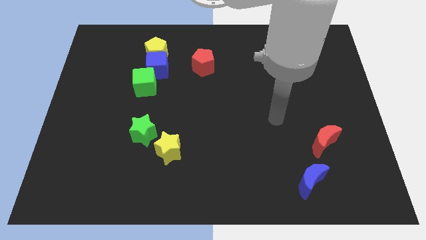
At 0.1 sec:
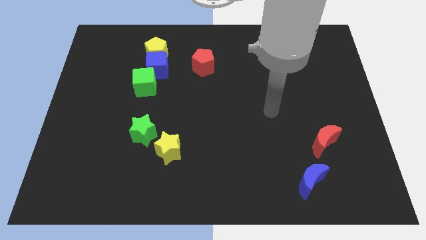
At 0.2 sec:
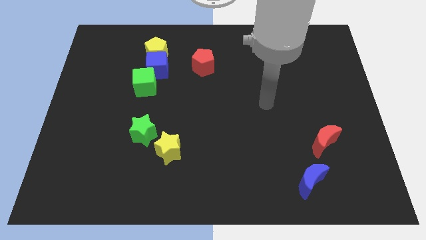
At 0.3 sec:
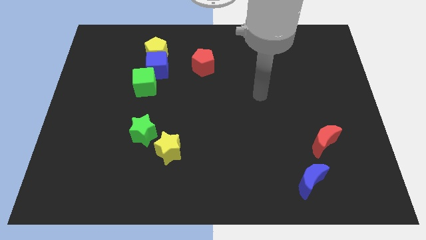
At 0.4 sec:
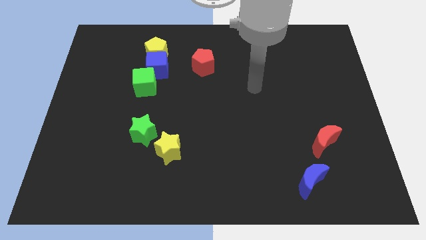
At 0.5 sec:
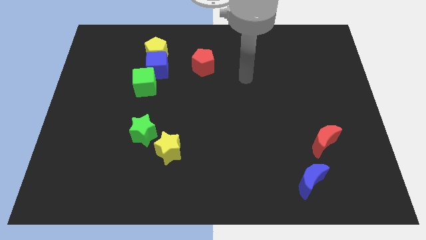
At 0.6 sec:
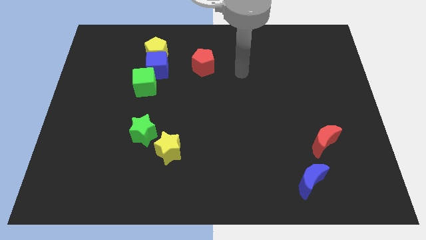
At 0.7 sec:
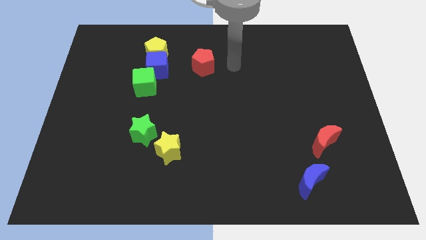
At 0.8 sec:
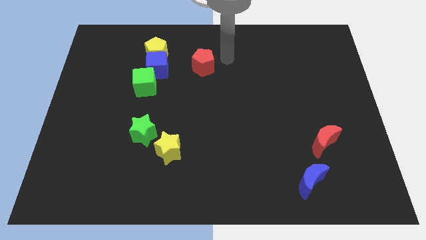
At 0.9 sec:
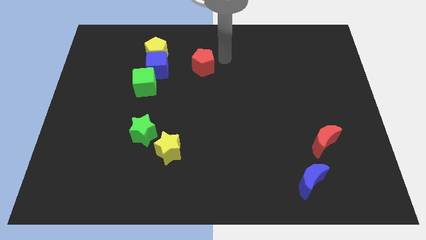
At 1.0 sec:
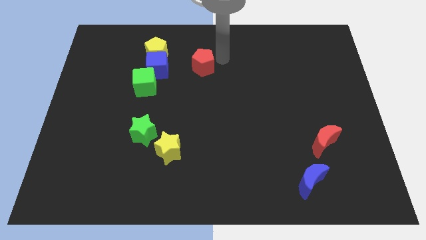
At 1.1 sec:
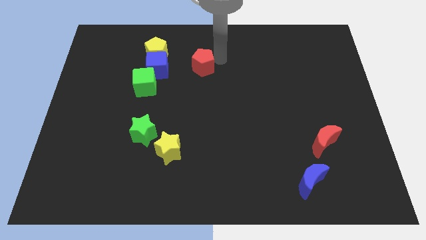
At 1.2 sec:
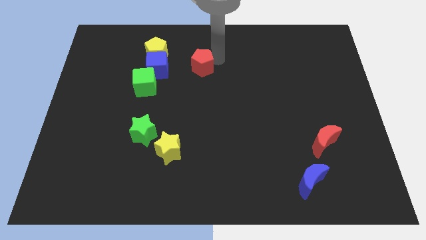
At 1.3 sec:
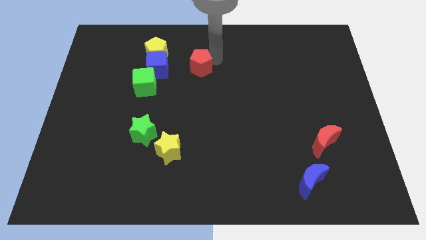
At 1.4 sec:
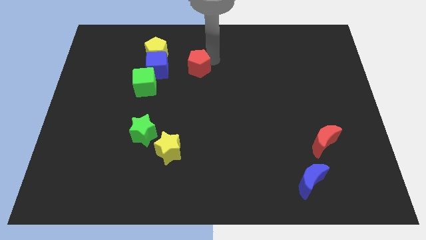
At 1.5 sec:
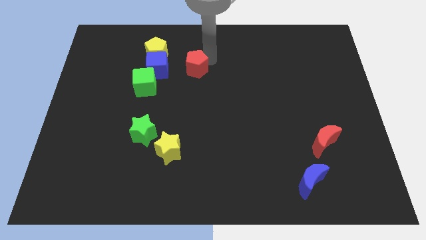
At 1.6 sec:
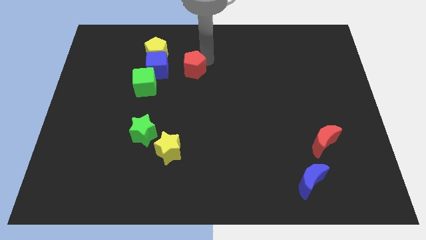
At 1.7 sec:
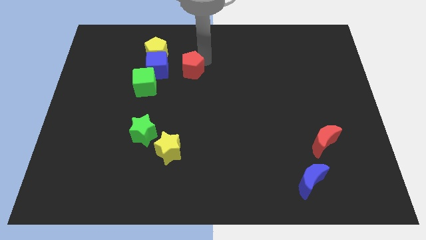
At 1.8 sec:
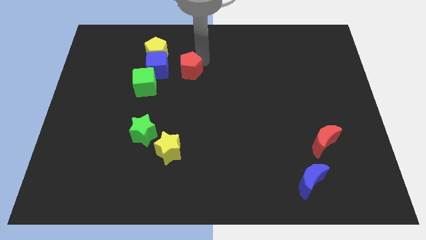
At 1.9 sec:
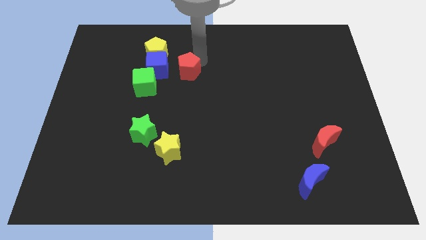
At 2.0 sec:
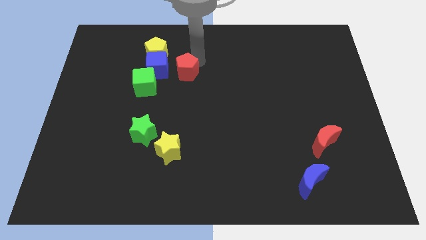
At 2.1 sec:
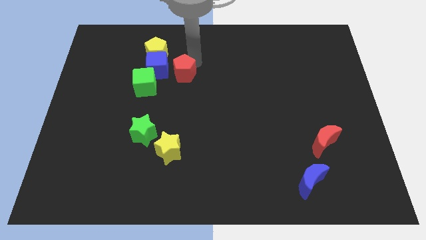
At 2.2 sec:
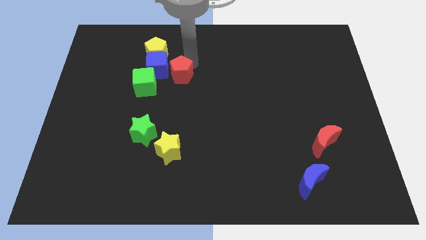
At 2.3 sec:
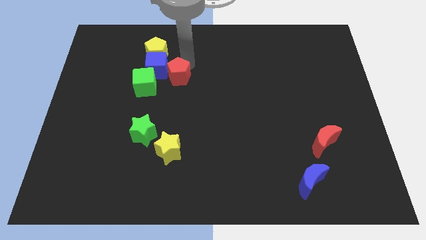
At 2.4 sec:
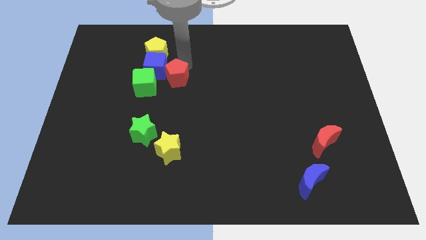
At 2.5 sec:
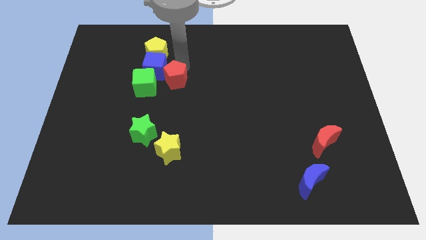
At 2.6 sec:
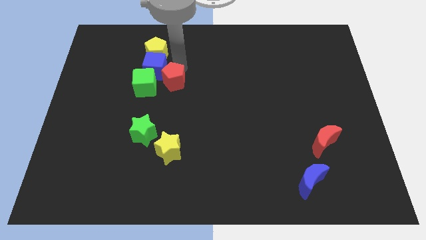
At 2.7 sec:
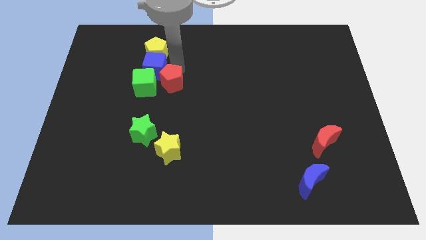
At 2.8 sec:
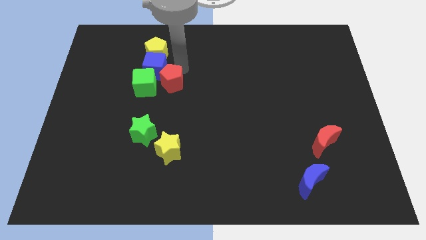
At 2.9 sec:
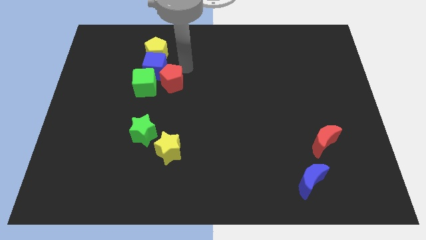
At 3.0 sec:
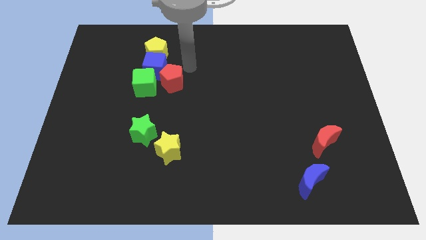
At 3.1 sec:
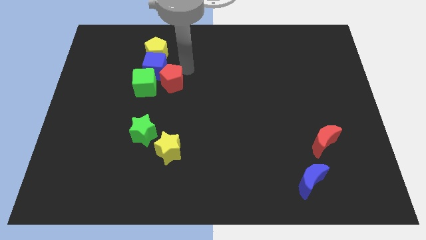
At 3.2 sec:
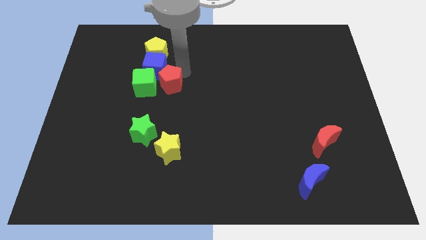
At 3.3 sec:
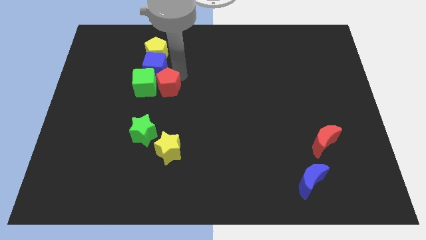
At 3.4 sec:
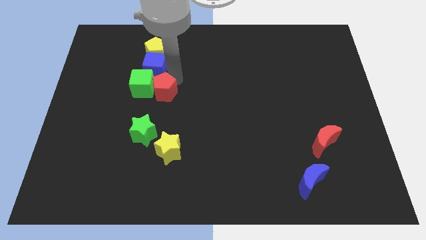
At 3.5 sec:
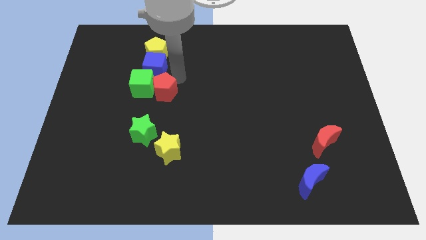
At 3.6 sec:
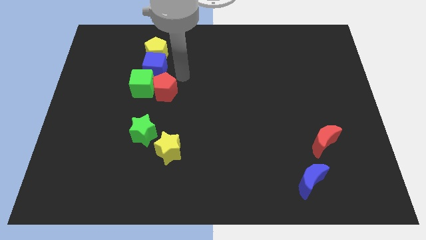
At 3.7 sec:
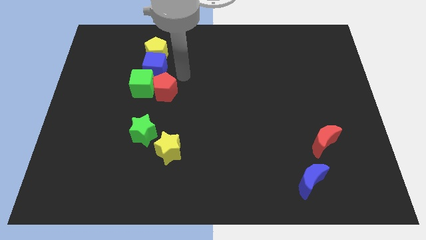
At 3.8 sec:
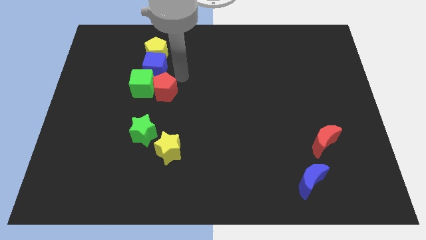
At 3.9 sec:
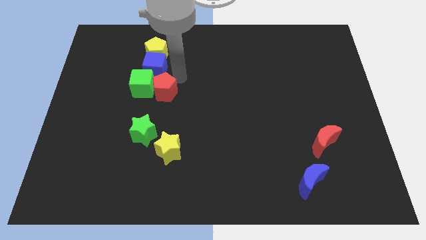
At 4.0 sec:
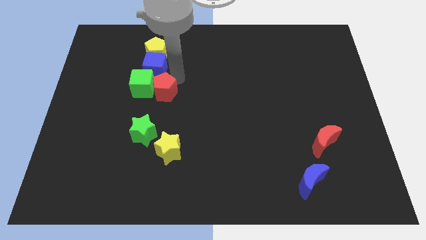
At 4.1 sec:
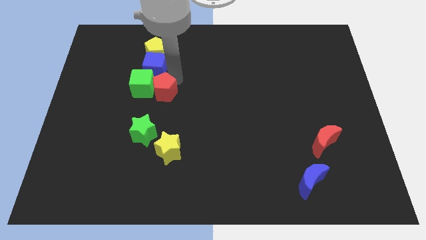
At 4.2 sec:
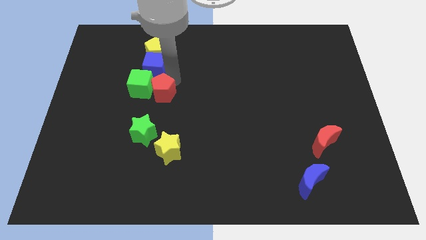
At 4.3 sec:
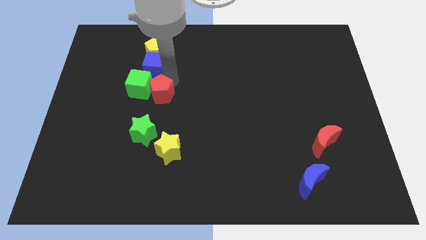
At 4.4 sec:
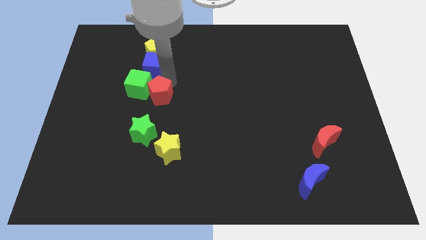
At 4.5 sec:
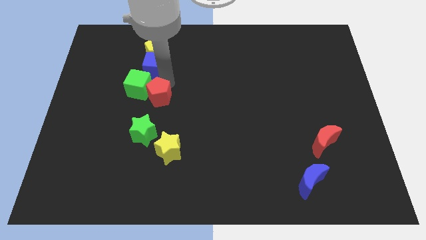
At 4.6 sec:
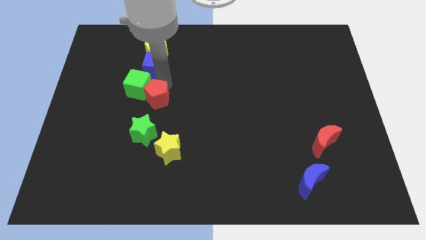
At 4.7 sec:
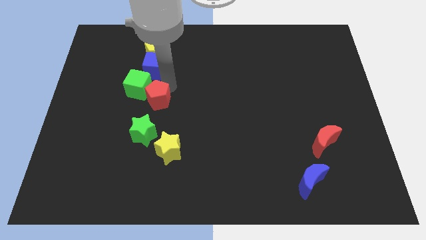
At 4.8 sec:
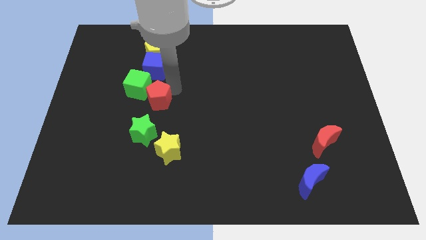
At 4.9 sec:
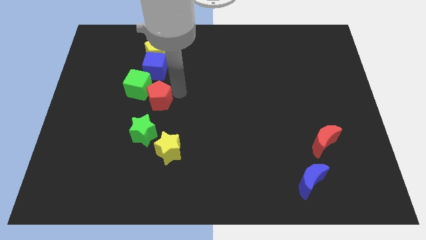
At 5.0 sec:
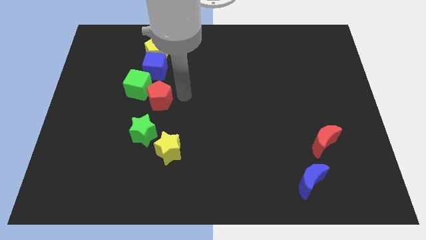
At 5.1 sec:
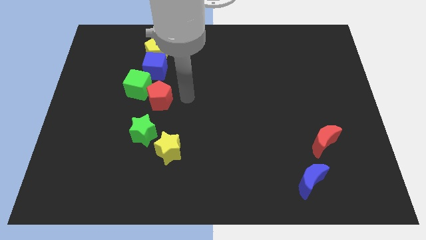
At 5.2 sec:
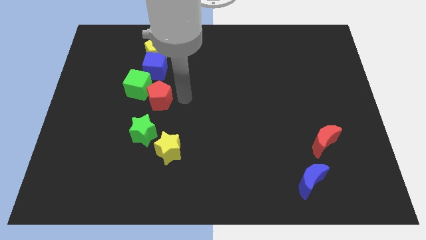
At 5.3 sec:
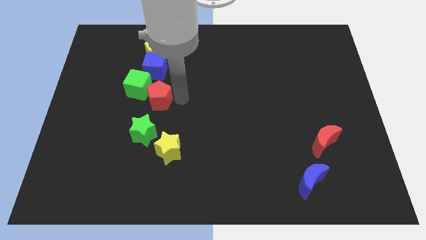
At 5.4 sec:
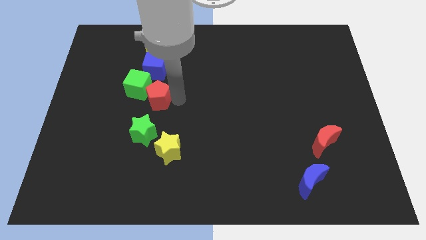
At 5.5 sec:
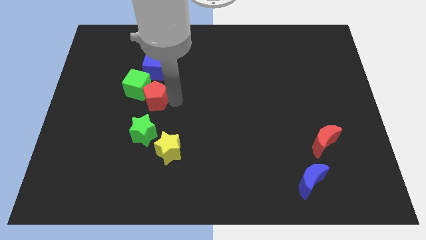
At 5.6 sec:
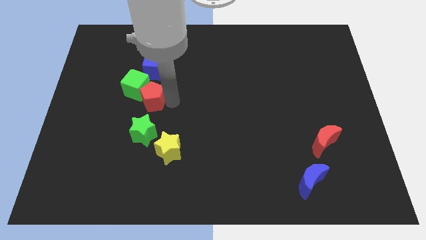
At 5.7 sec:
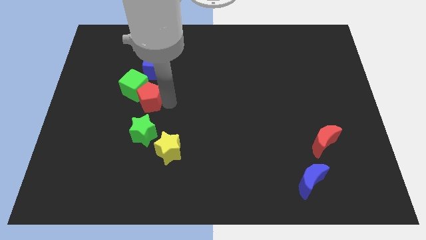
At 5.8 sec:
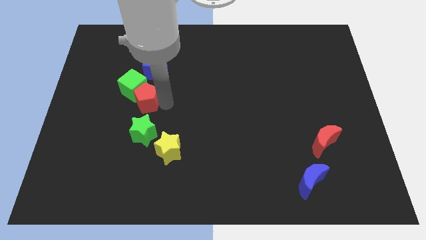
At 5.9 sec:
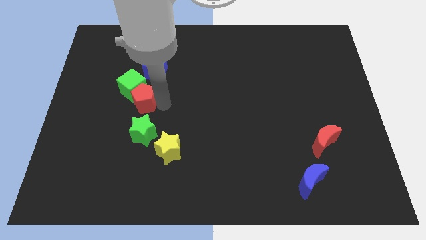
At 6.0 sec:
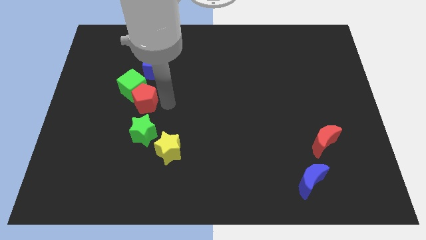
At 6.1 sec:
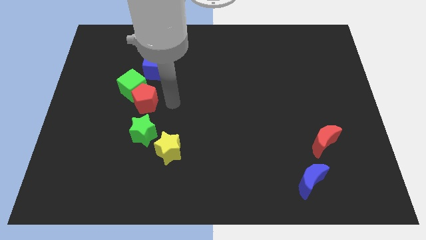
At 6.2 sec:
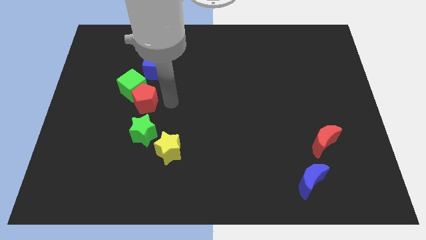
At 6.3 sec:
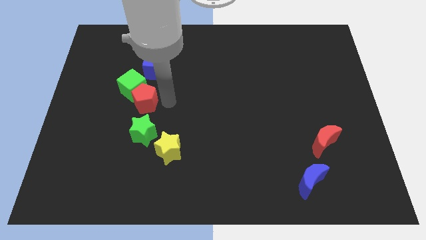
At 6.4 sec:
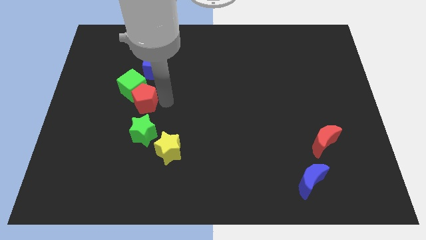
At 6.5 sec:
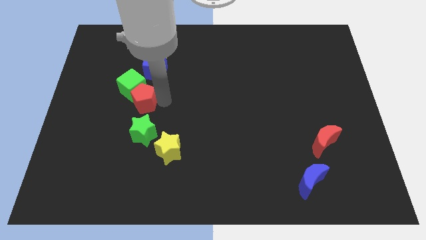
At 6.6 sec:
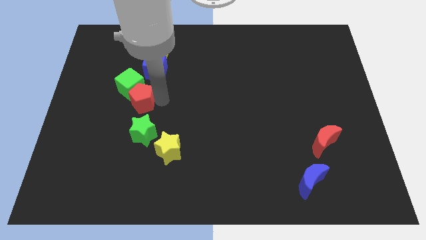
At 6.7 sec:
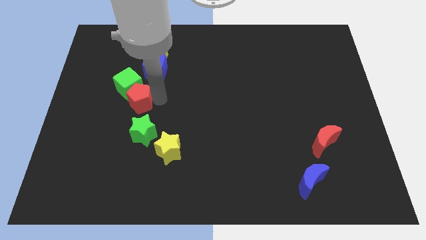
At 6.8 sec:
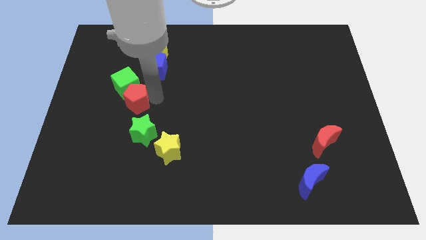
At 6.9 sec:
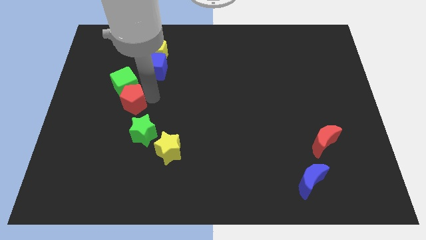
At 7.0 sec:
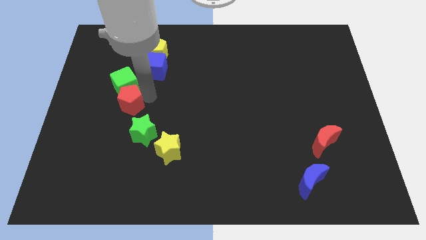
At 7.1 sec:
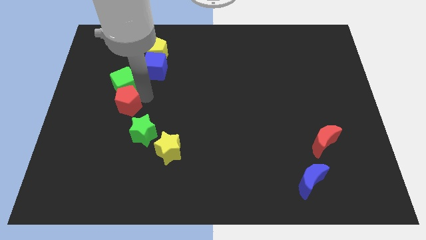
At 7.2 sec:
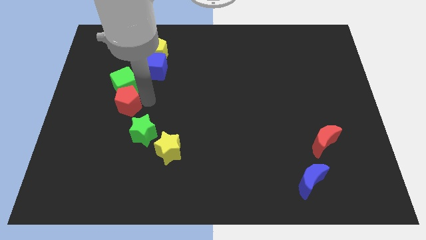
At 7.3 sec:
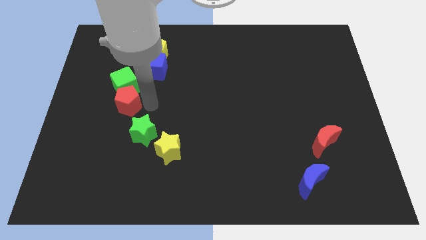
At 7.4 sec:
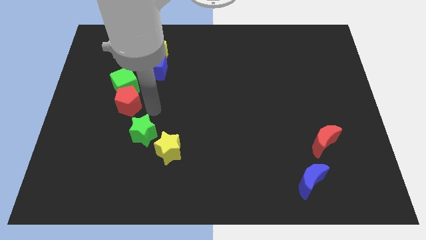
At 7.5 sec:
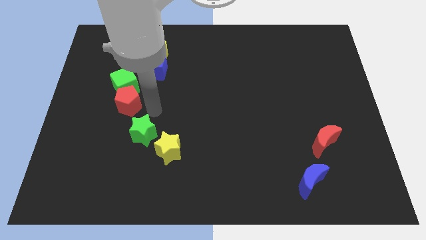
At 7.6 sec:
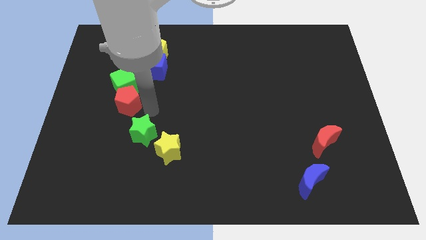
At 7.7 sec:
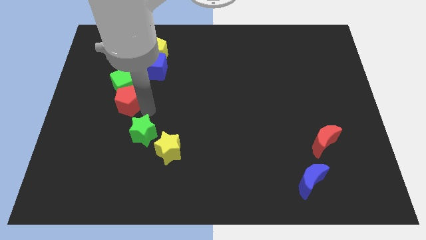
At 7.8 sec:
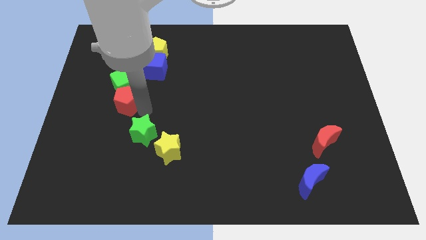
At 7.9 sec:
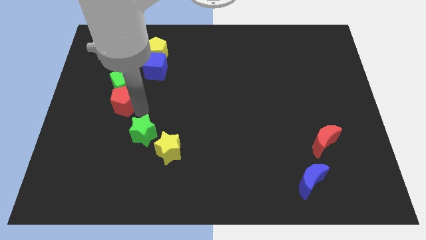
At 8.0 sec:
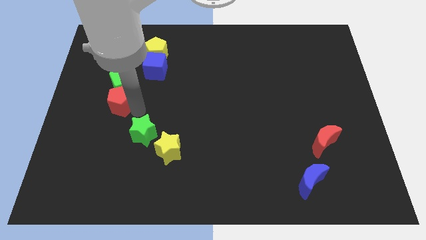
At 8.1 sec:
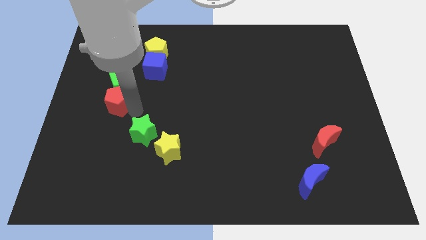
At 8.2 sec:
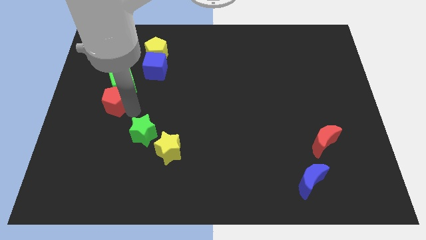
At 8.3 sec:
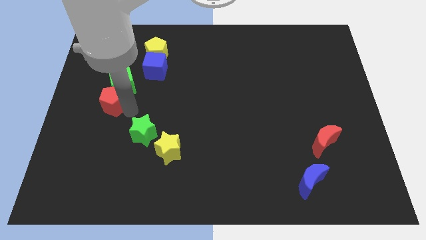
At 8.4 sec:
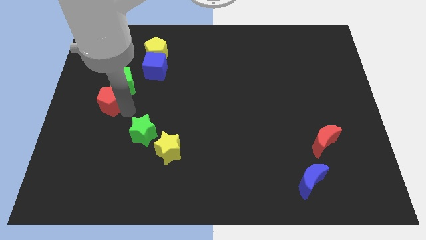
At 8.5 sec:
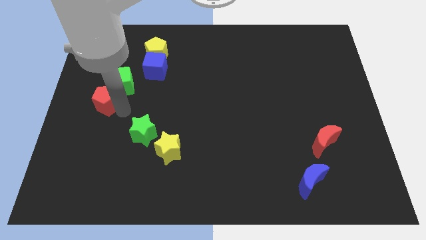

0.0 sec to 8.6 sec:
slide the red pentagon to the left side of the board
